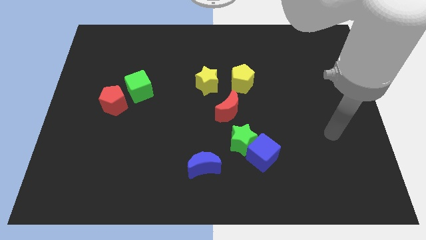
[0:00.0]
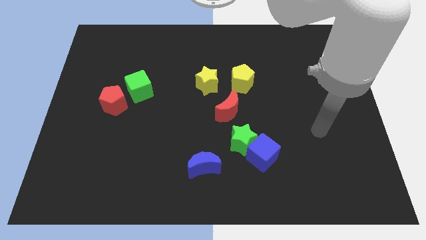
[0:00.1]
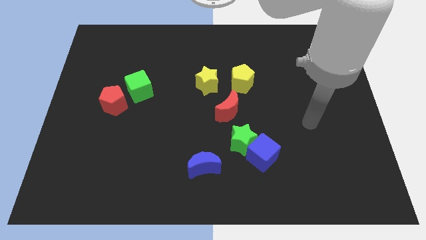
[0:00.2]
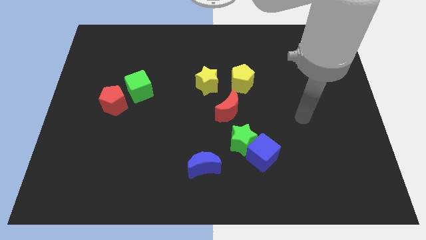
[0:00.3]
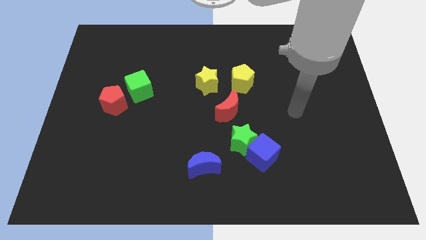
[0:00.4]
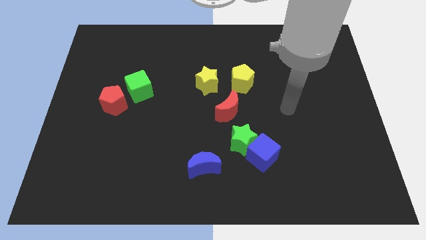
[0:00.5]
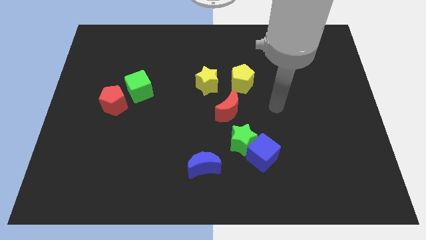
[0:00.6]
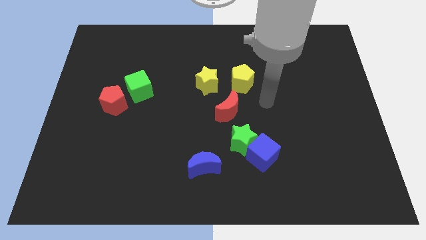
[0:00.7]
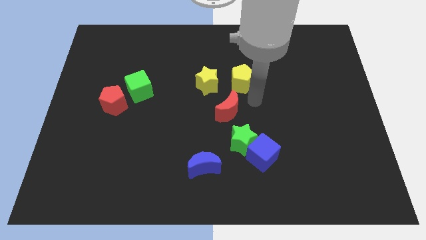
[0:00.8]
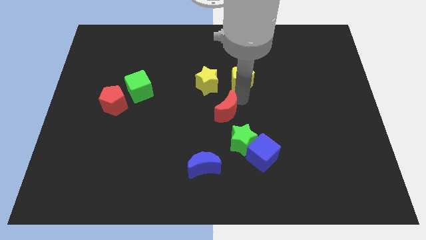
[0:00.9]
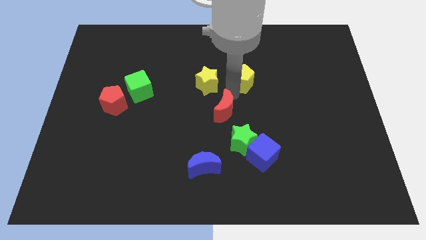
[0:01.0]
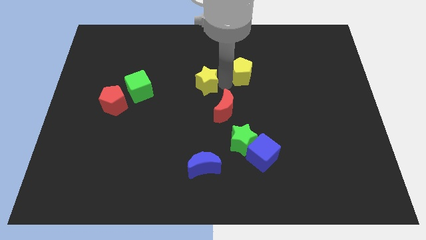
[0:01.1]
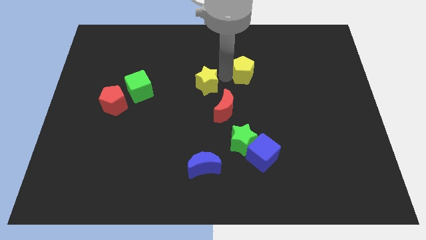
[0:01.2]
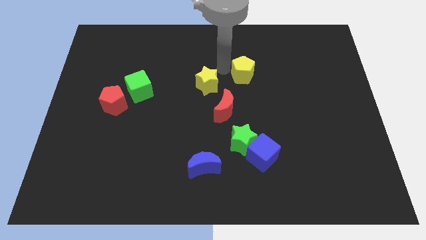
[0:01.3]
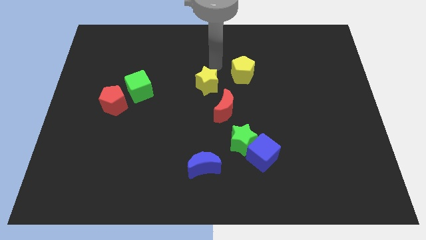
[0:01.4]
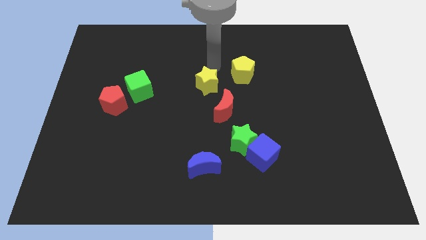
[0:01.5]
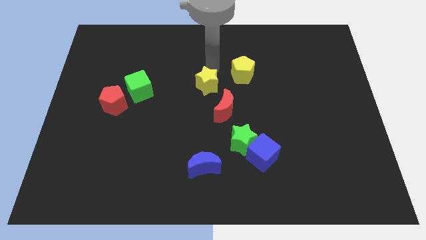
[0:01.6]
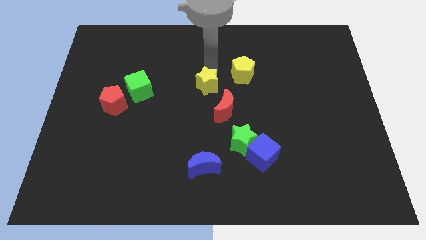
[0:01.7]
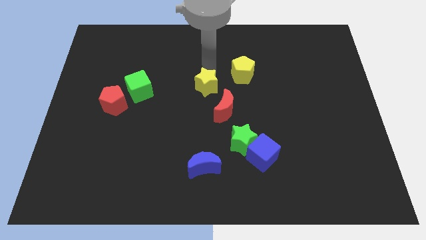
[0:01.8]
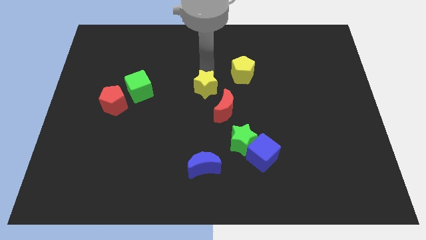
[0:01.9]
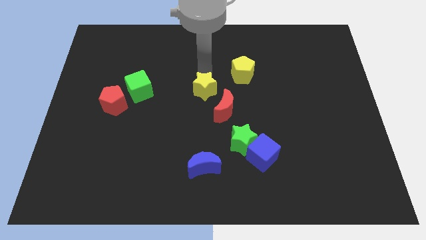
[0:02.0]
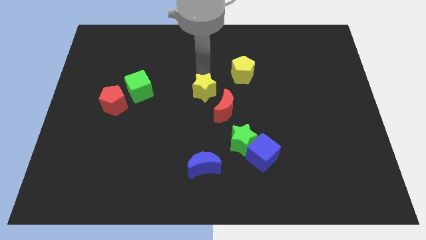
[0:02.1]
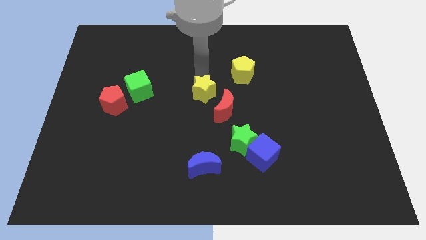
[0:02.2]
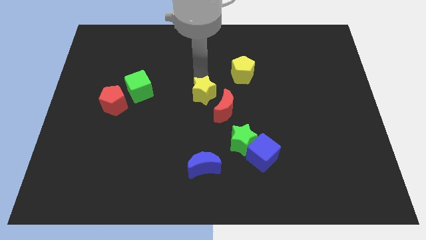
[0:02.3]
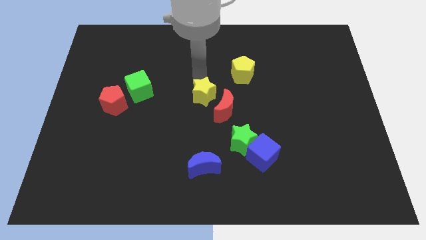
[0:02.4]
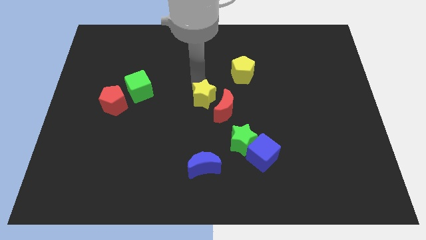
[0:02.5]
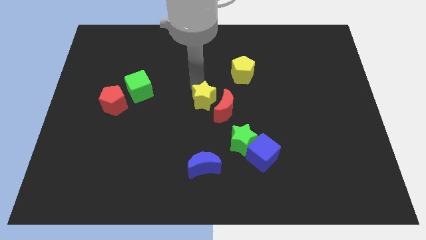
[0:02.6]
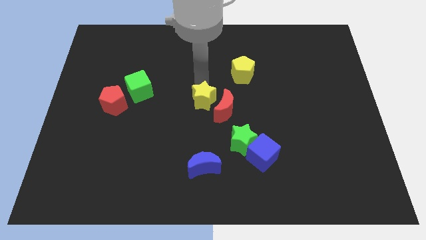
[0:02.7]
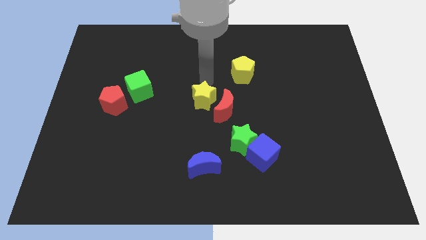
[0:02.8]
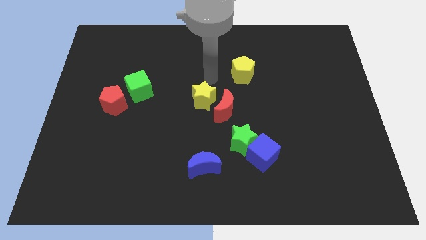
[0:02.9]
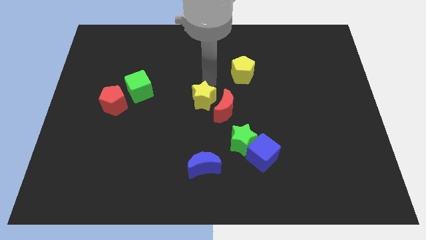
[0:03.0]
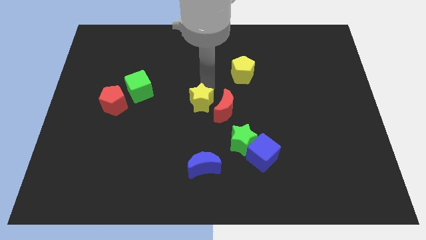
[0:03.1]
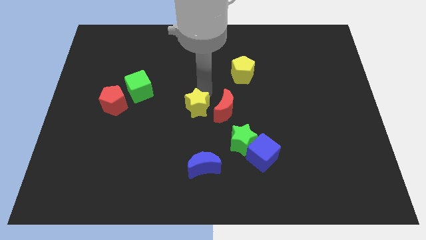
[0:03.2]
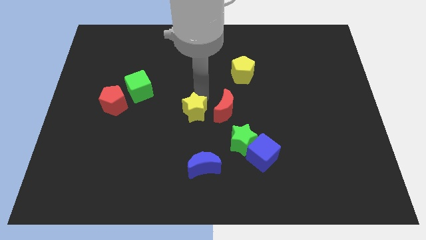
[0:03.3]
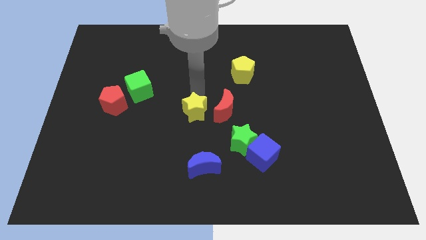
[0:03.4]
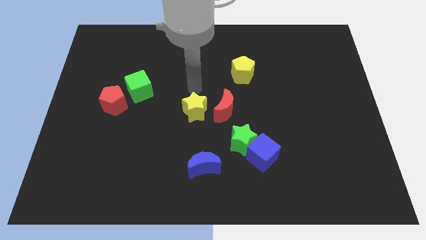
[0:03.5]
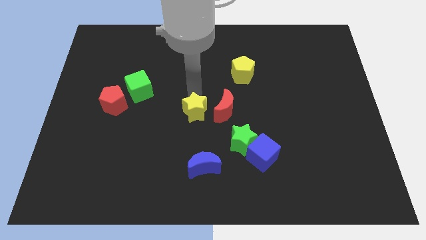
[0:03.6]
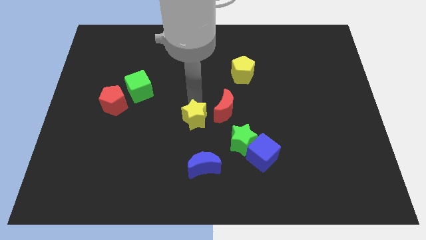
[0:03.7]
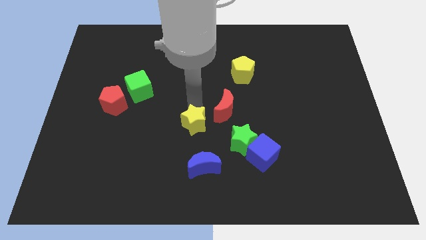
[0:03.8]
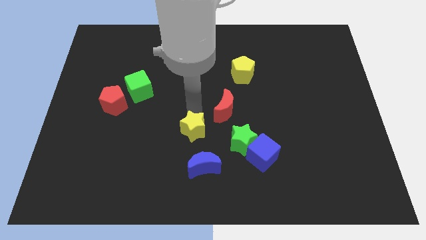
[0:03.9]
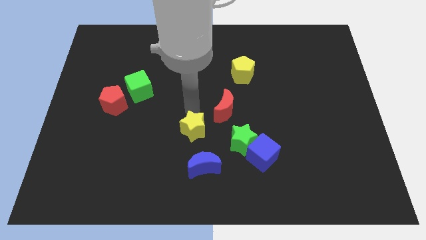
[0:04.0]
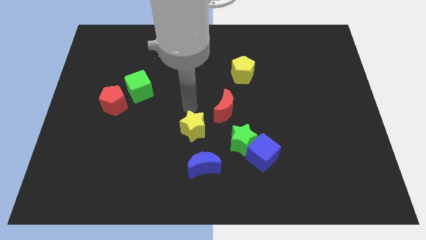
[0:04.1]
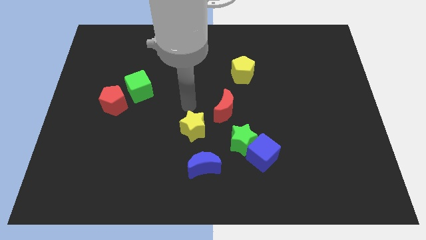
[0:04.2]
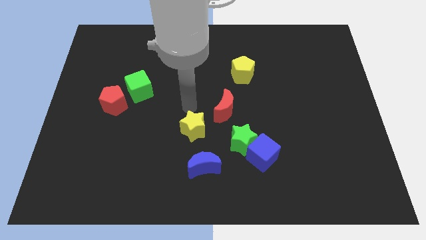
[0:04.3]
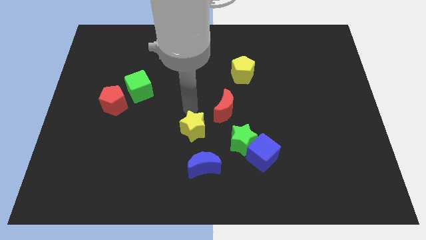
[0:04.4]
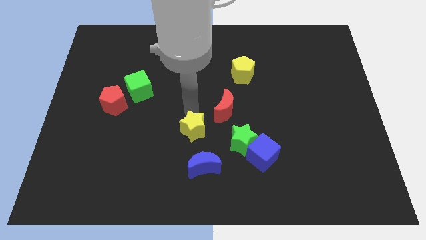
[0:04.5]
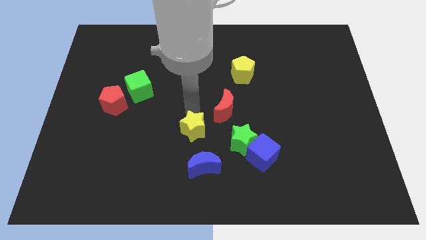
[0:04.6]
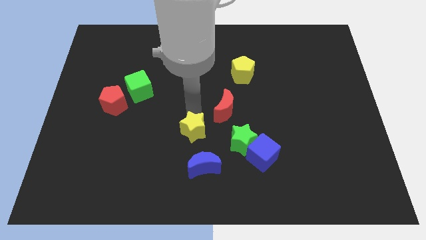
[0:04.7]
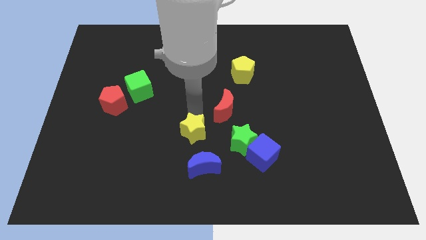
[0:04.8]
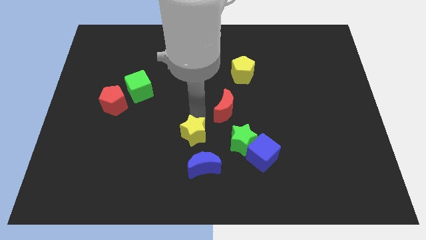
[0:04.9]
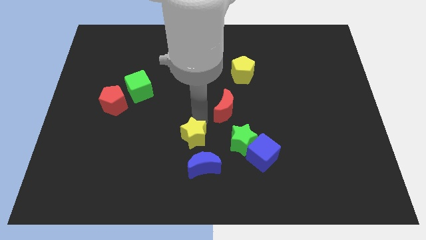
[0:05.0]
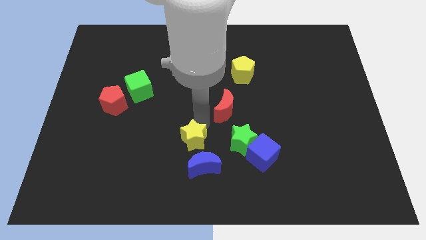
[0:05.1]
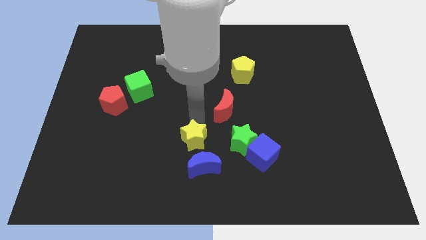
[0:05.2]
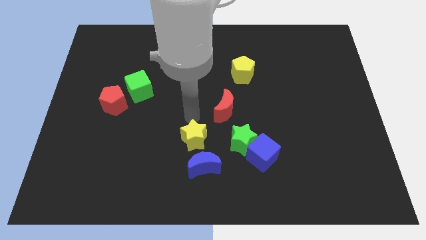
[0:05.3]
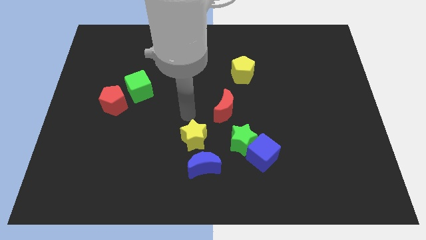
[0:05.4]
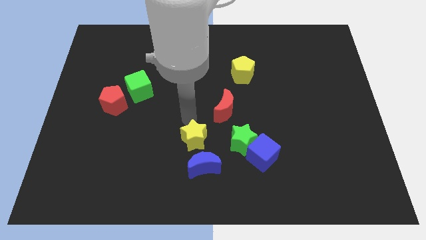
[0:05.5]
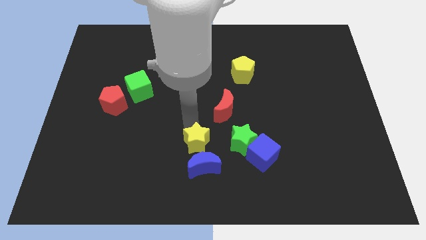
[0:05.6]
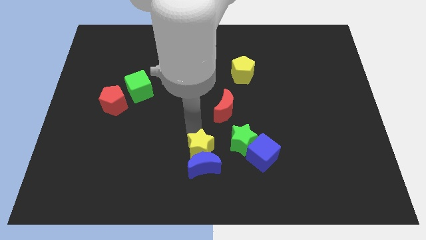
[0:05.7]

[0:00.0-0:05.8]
push the yellow star towards the blue moon

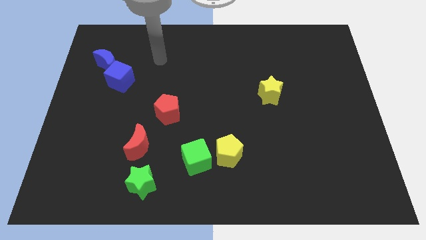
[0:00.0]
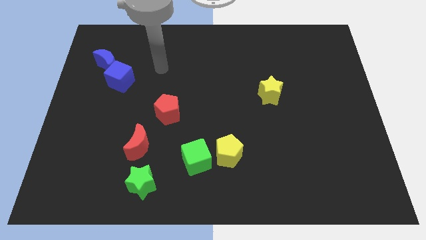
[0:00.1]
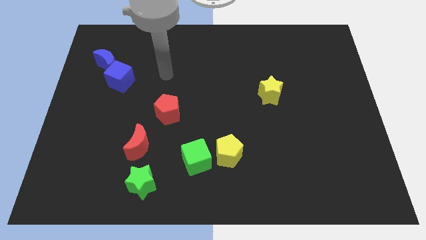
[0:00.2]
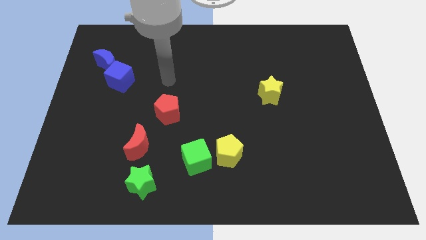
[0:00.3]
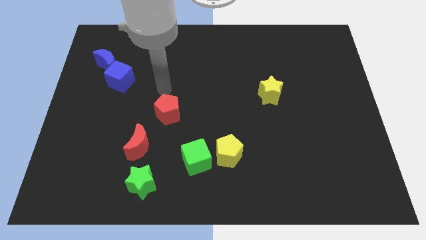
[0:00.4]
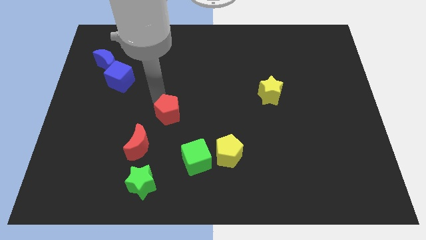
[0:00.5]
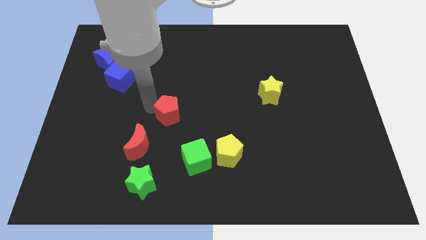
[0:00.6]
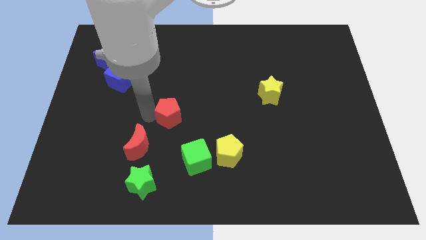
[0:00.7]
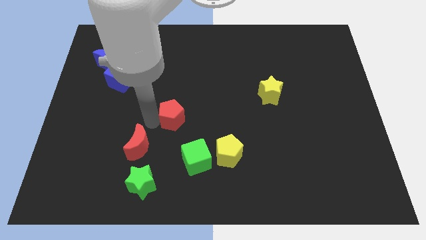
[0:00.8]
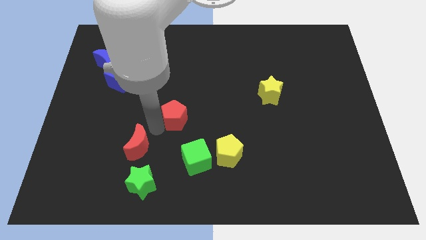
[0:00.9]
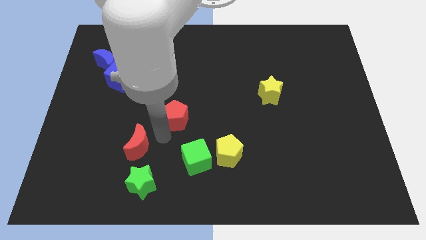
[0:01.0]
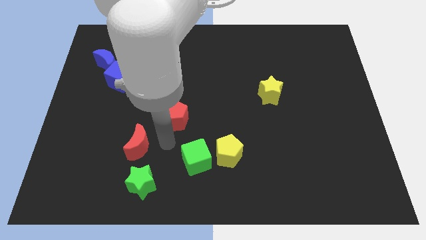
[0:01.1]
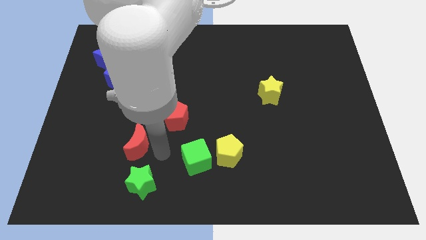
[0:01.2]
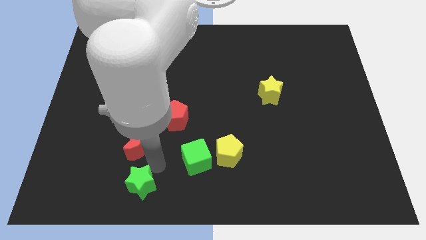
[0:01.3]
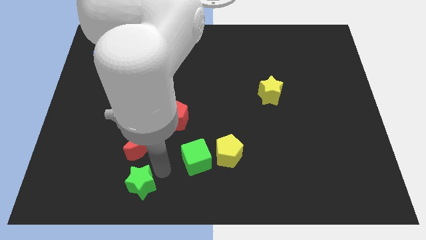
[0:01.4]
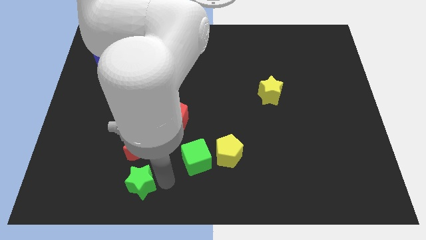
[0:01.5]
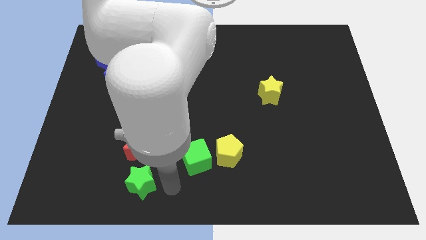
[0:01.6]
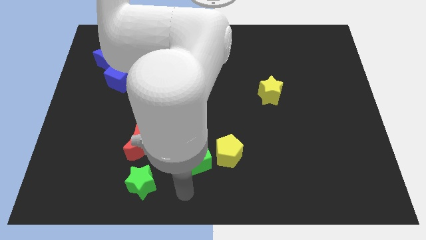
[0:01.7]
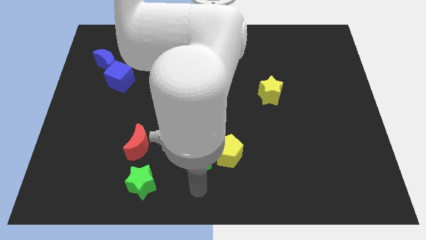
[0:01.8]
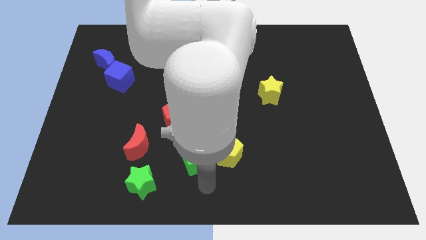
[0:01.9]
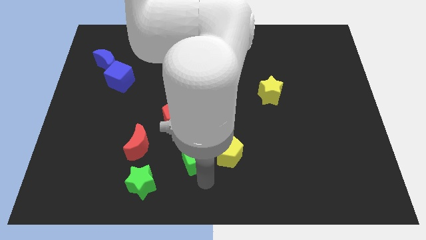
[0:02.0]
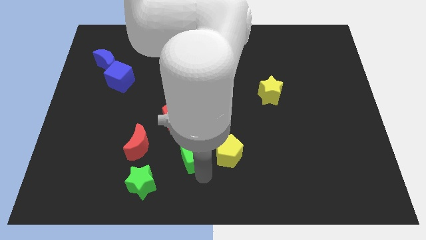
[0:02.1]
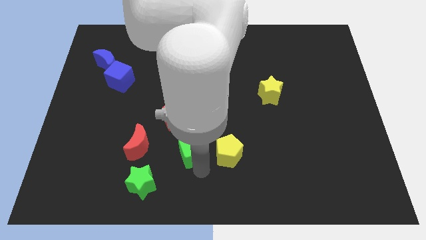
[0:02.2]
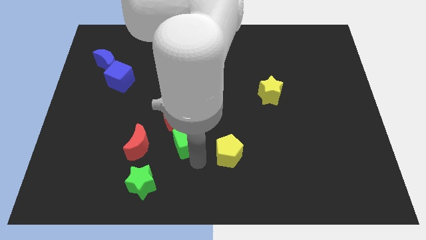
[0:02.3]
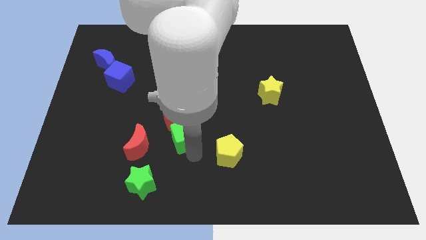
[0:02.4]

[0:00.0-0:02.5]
move the green cube towards the red pentagon
